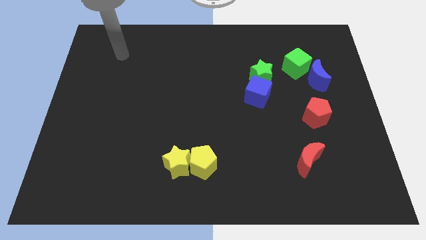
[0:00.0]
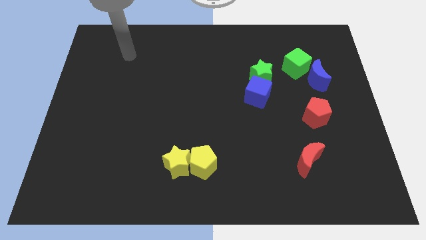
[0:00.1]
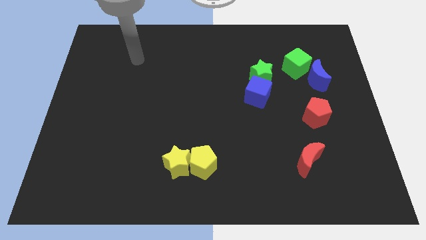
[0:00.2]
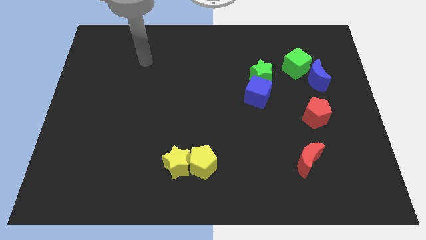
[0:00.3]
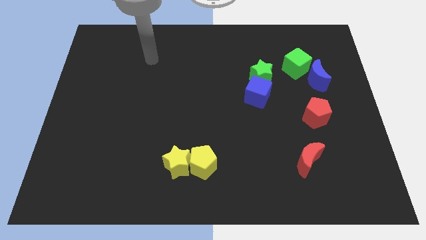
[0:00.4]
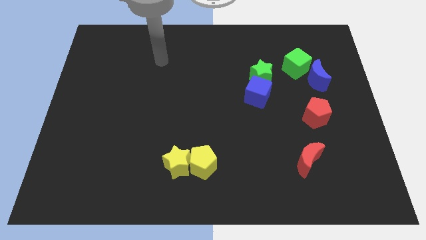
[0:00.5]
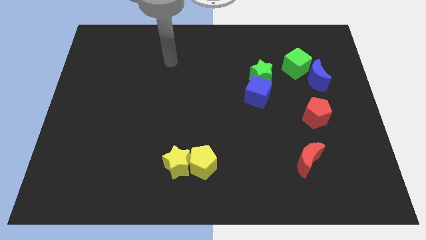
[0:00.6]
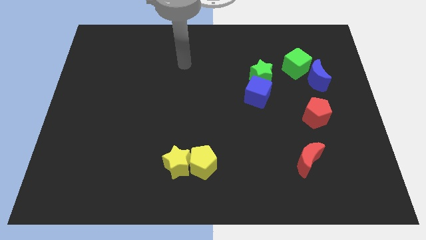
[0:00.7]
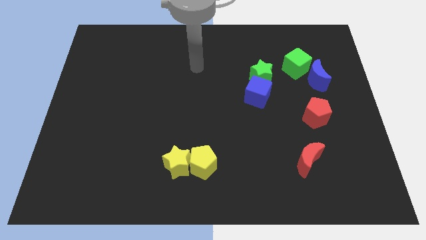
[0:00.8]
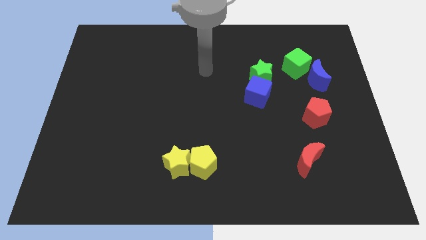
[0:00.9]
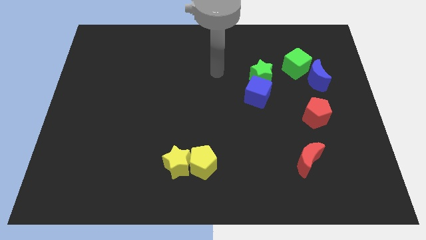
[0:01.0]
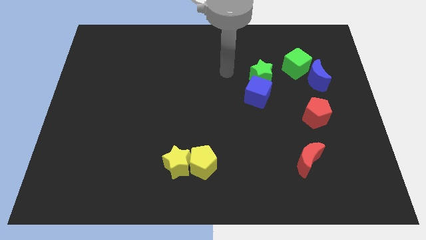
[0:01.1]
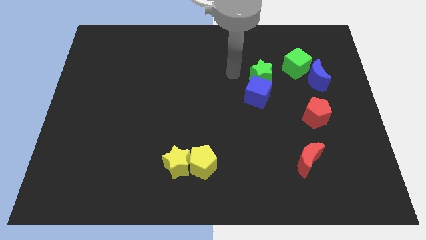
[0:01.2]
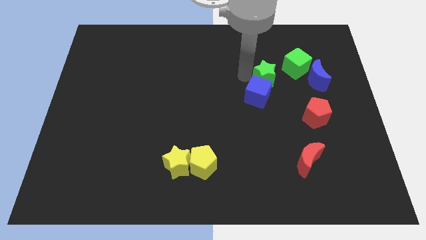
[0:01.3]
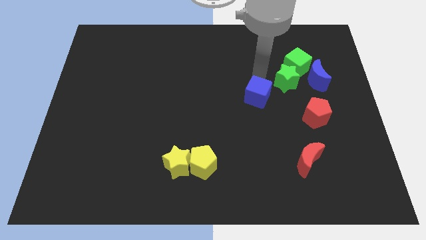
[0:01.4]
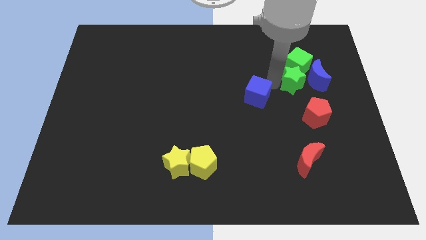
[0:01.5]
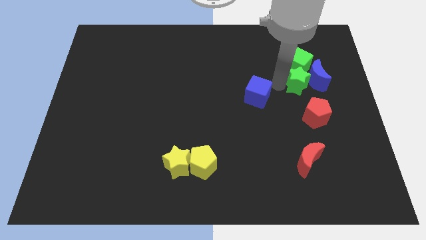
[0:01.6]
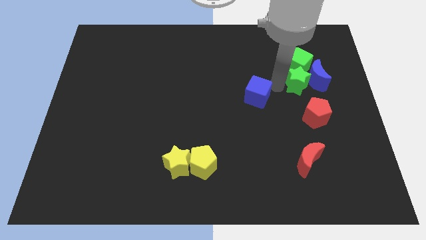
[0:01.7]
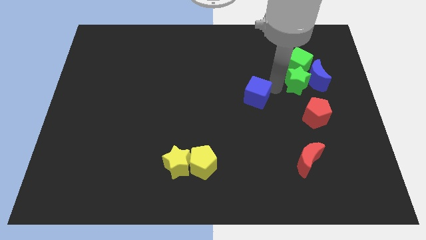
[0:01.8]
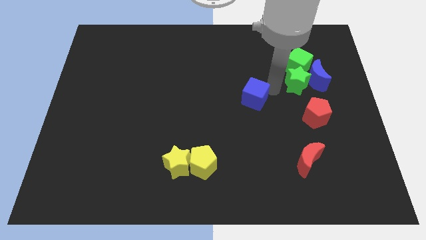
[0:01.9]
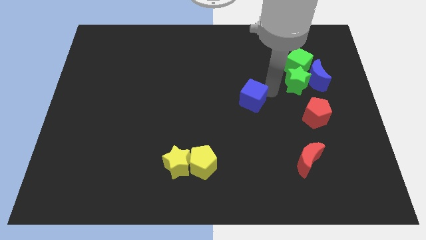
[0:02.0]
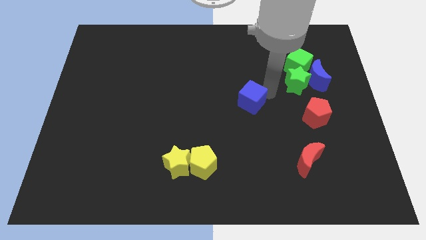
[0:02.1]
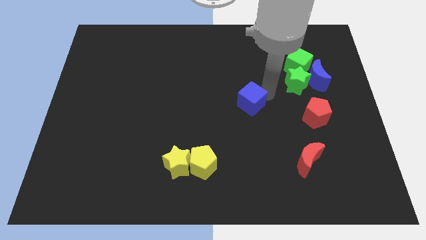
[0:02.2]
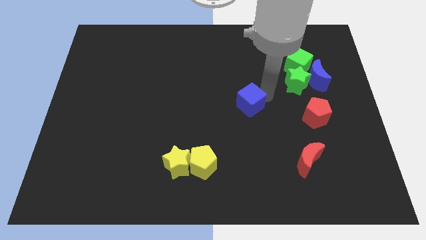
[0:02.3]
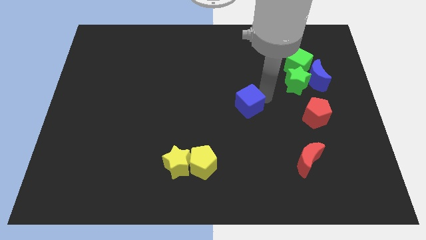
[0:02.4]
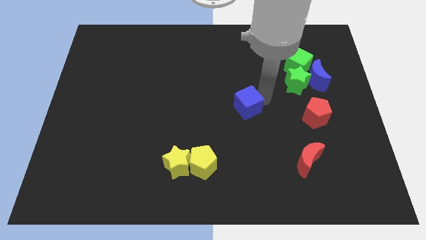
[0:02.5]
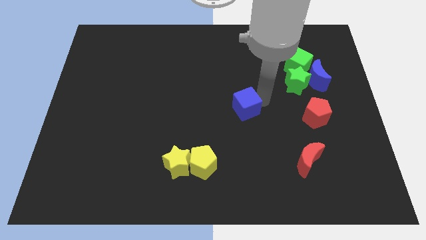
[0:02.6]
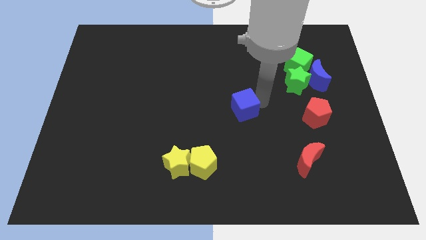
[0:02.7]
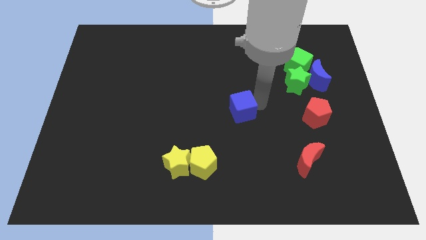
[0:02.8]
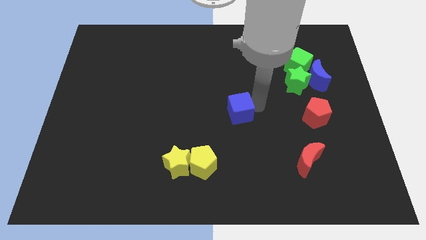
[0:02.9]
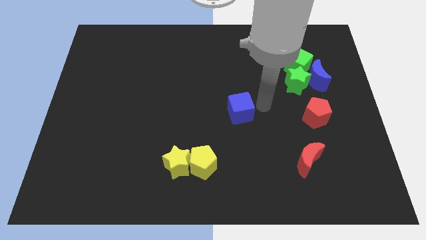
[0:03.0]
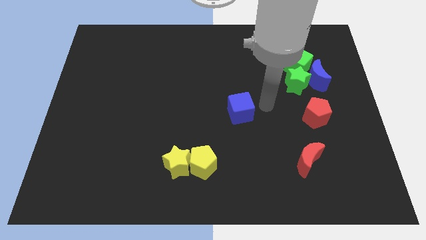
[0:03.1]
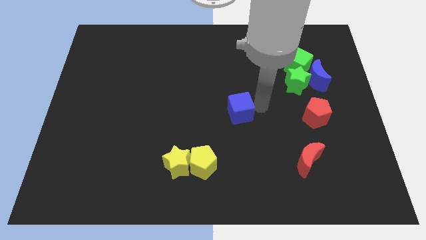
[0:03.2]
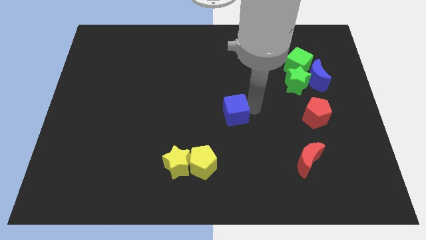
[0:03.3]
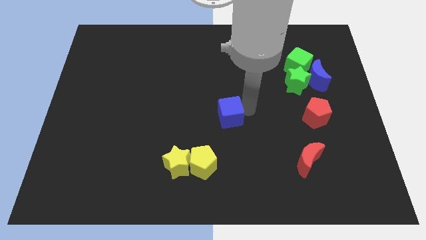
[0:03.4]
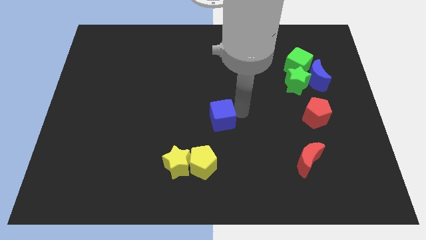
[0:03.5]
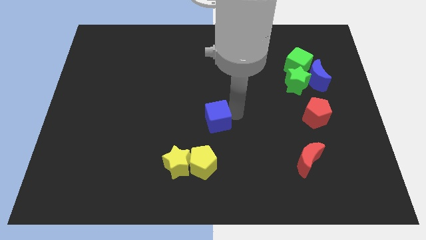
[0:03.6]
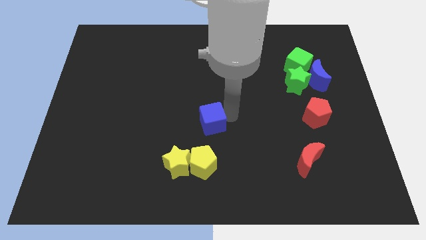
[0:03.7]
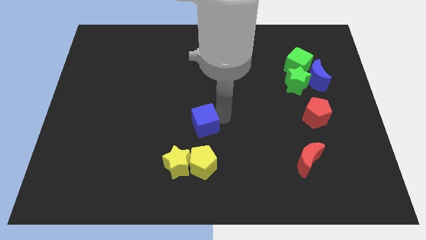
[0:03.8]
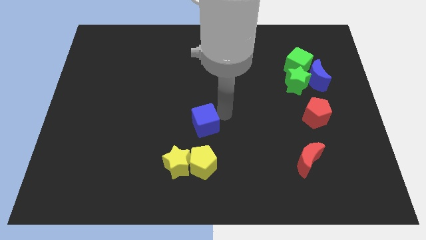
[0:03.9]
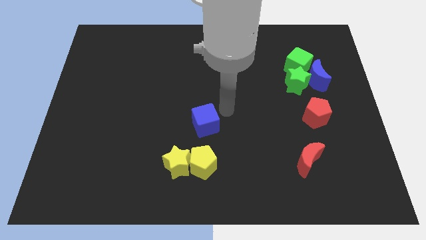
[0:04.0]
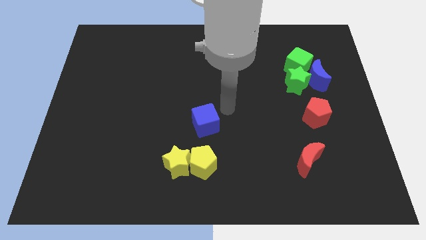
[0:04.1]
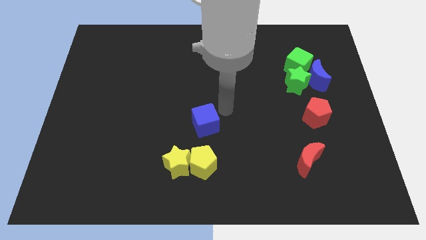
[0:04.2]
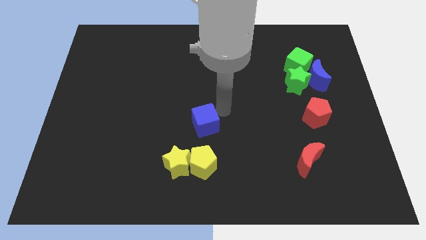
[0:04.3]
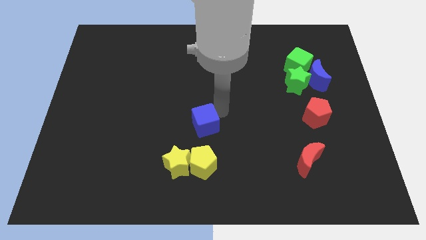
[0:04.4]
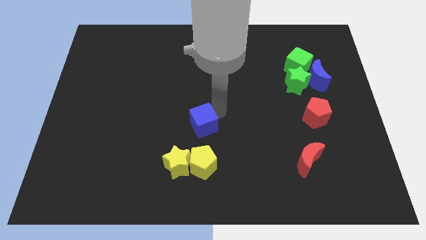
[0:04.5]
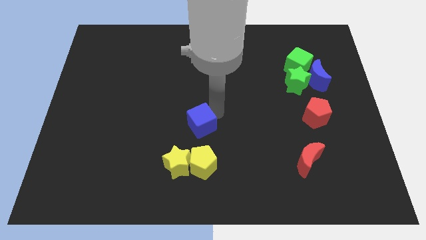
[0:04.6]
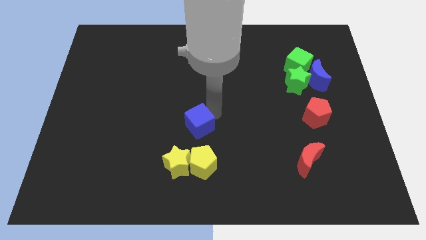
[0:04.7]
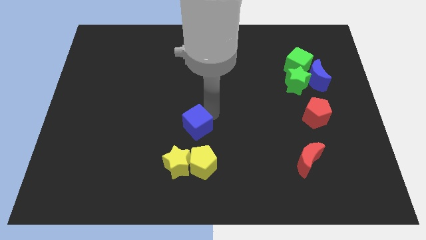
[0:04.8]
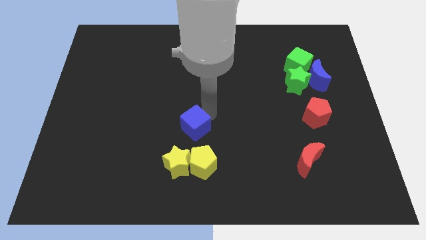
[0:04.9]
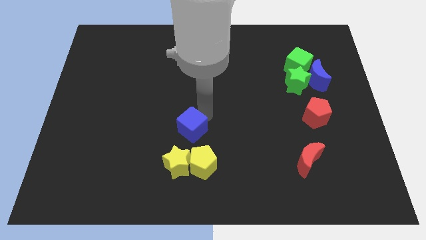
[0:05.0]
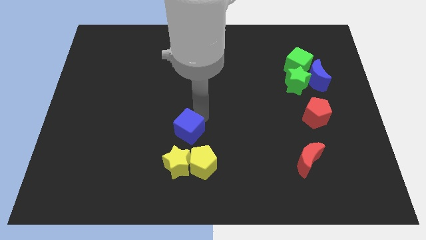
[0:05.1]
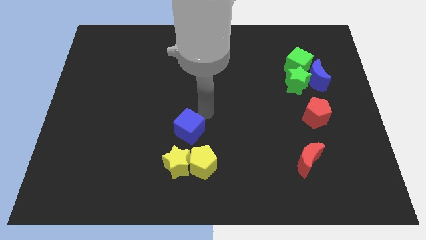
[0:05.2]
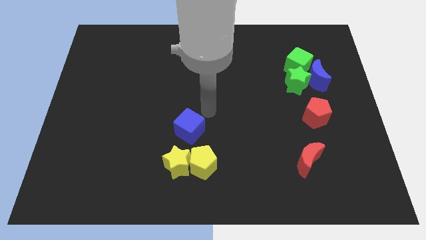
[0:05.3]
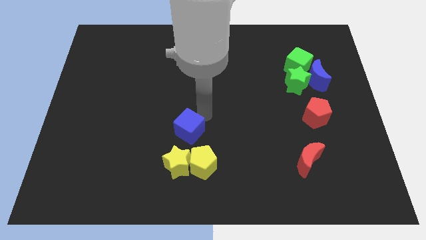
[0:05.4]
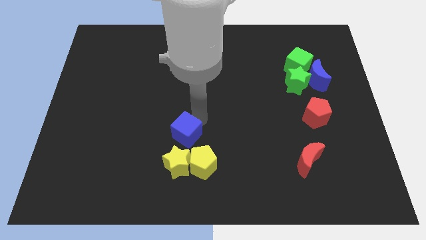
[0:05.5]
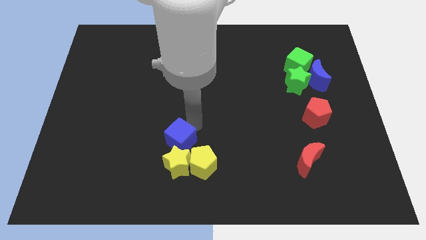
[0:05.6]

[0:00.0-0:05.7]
push the blue cube downwards and left

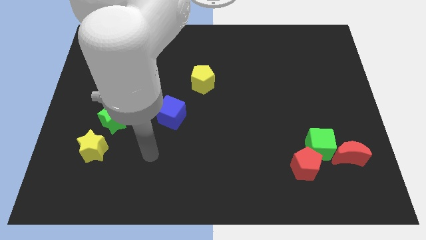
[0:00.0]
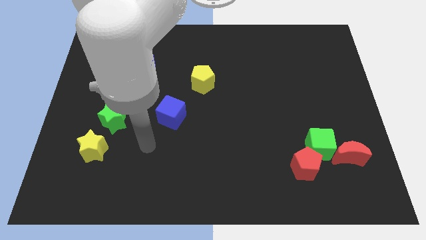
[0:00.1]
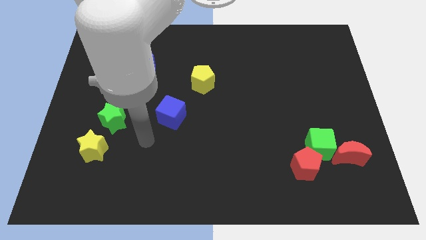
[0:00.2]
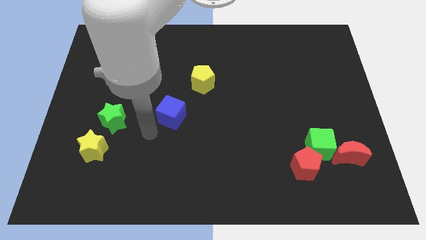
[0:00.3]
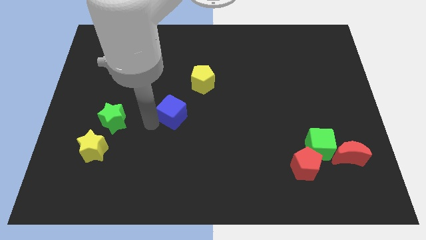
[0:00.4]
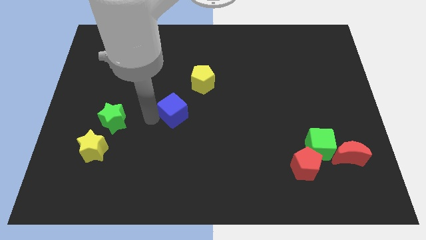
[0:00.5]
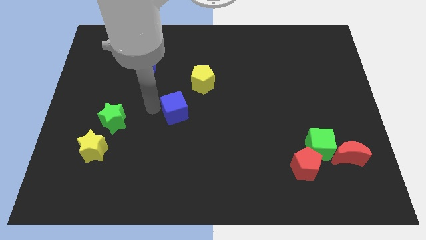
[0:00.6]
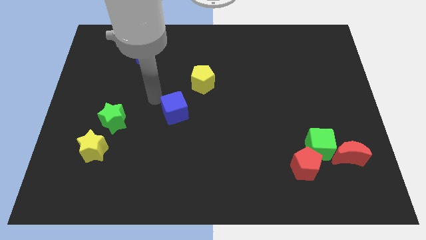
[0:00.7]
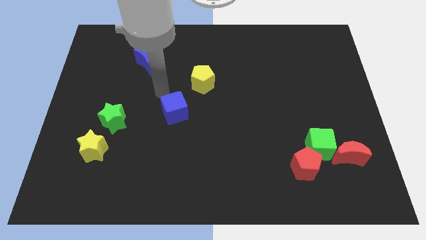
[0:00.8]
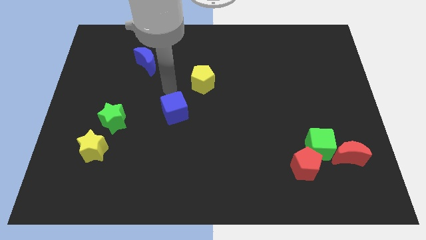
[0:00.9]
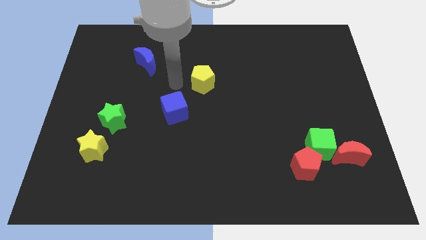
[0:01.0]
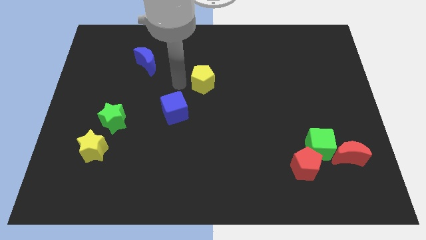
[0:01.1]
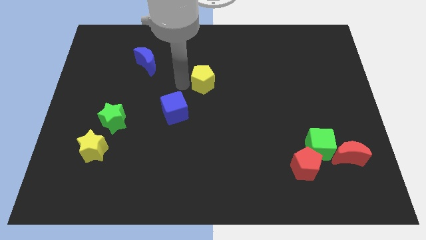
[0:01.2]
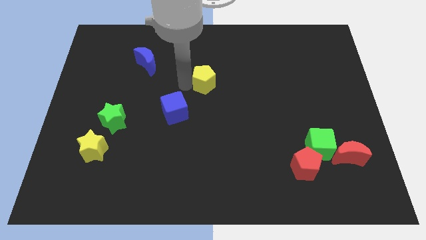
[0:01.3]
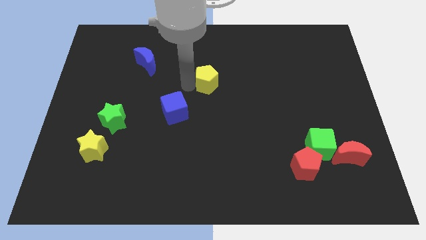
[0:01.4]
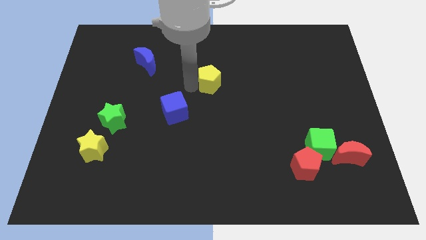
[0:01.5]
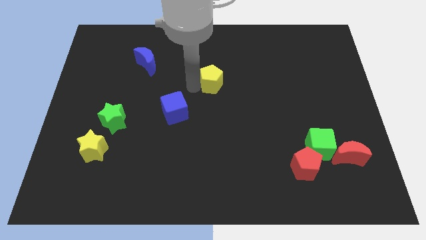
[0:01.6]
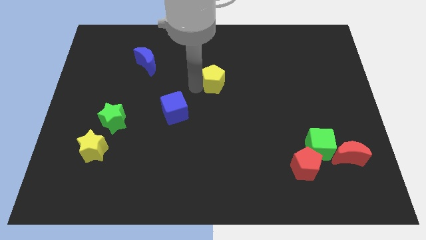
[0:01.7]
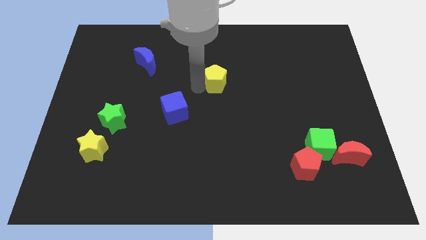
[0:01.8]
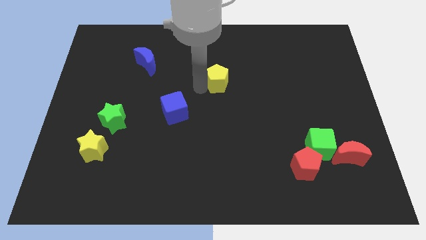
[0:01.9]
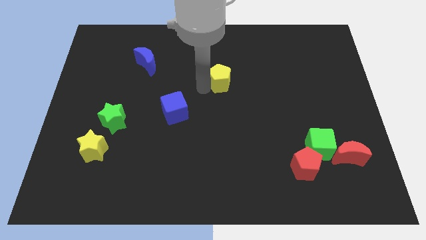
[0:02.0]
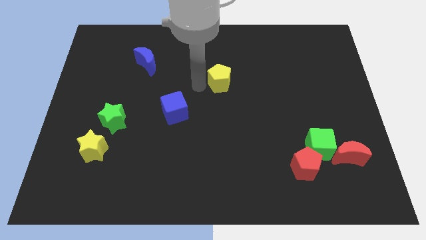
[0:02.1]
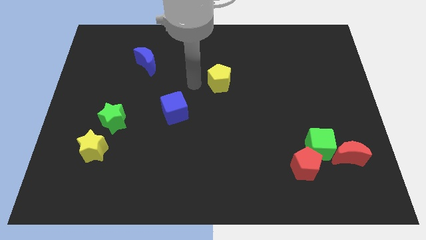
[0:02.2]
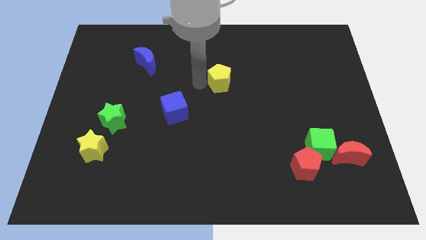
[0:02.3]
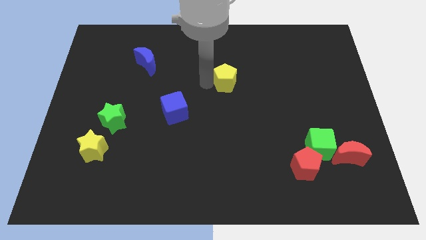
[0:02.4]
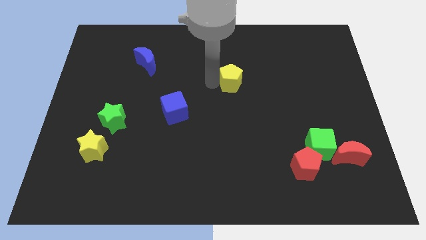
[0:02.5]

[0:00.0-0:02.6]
move the yellow pentagon right a bit
